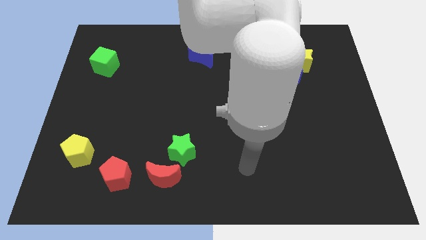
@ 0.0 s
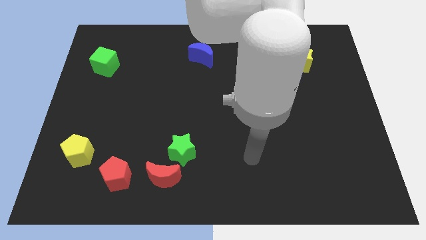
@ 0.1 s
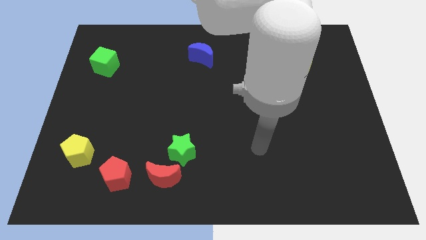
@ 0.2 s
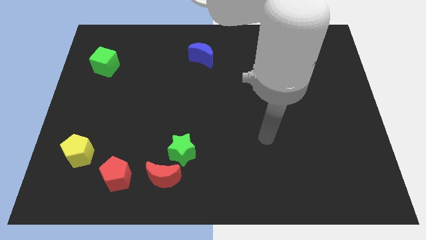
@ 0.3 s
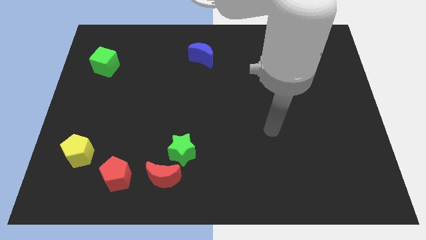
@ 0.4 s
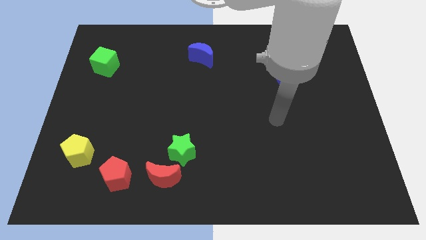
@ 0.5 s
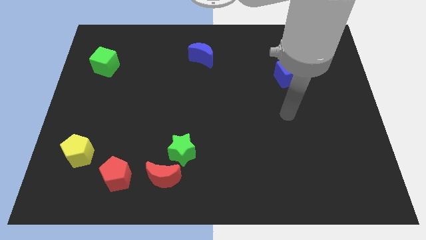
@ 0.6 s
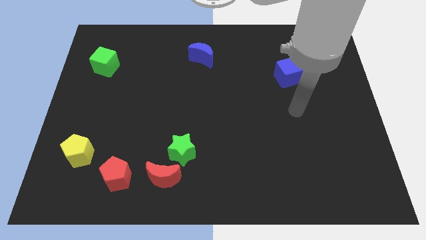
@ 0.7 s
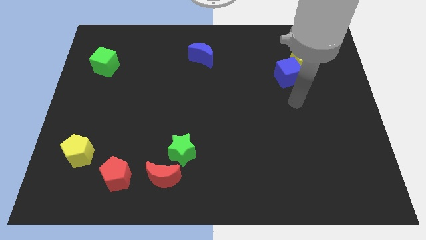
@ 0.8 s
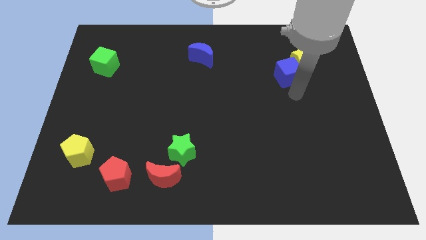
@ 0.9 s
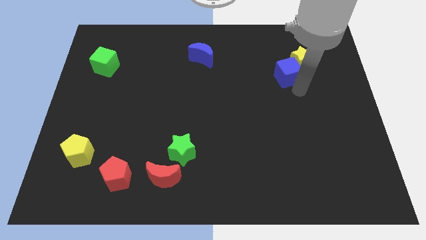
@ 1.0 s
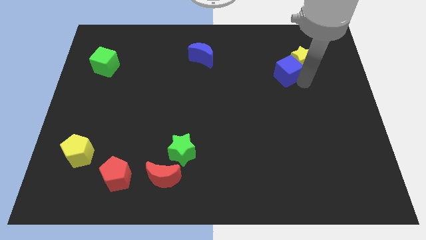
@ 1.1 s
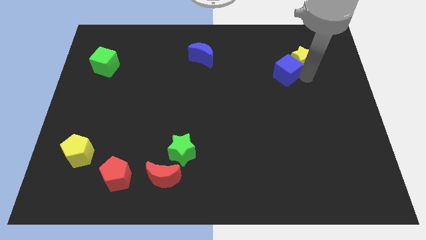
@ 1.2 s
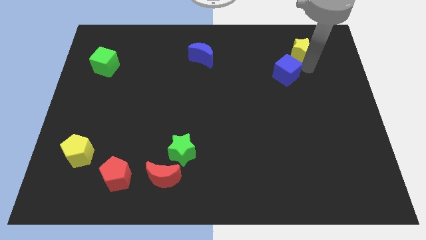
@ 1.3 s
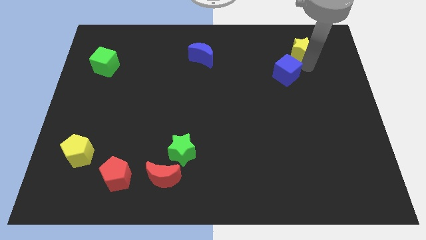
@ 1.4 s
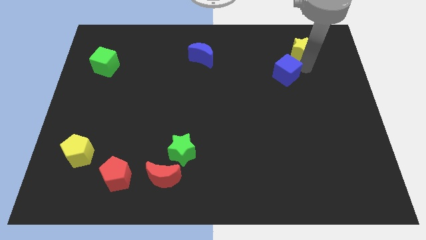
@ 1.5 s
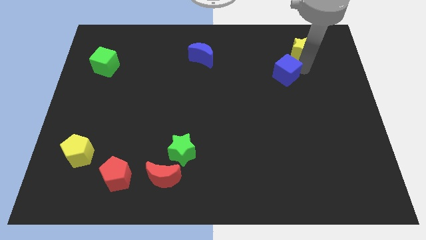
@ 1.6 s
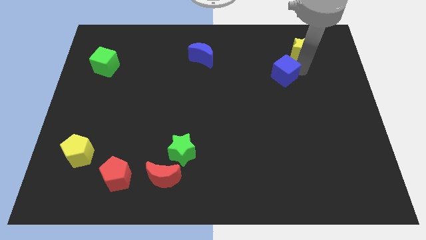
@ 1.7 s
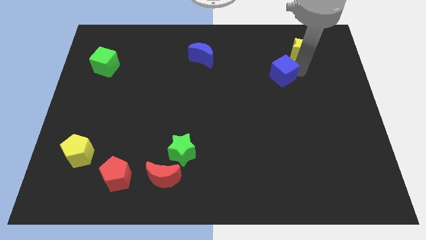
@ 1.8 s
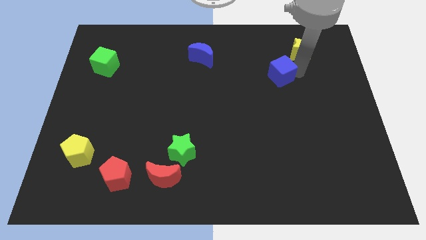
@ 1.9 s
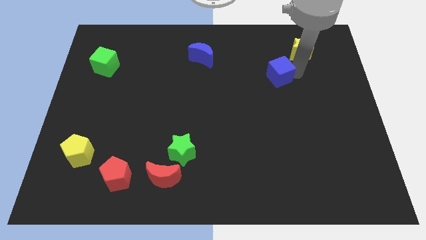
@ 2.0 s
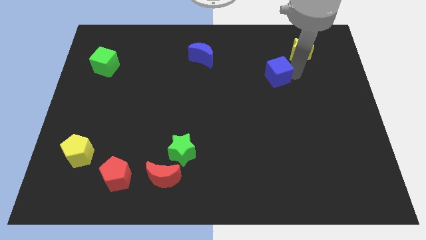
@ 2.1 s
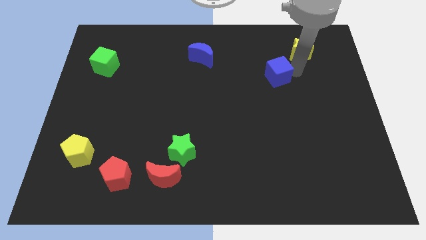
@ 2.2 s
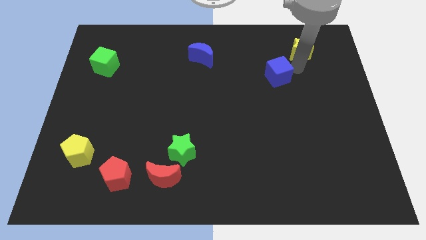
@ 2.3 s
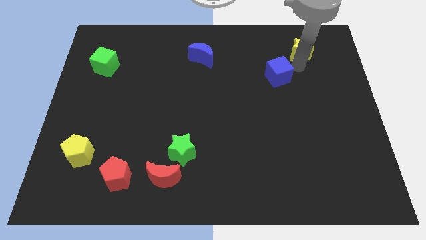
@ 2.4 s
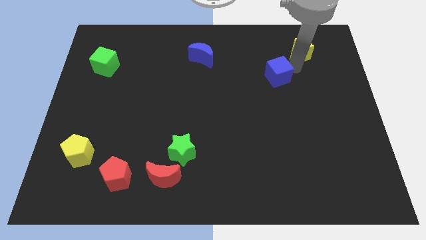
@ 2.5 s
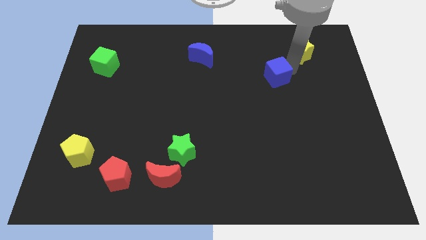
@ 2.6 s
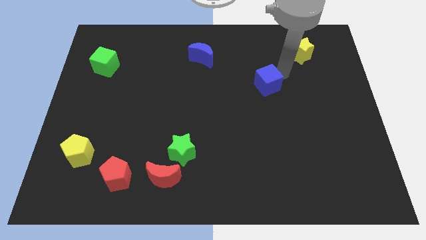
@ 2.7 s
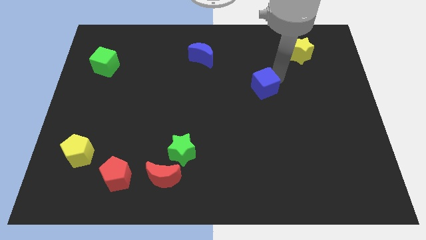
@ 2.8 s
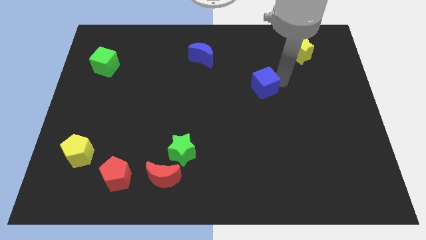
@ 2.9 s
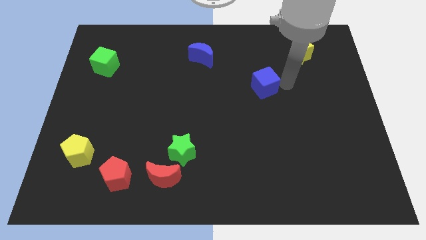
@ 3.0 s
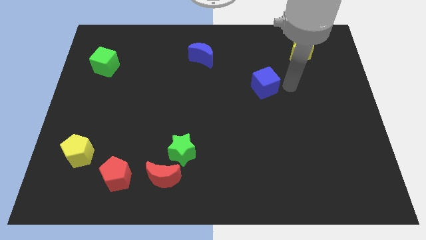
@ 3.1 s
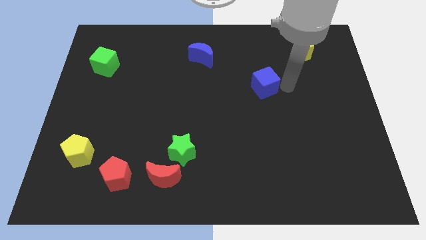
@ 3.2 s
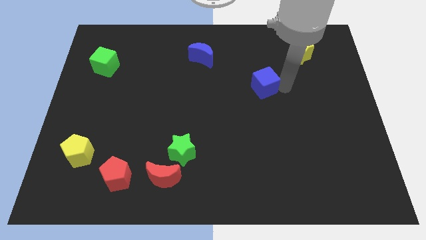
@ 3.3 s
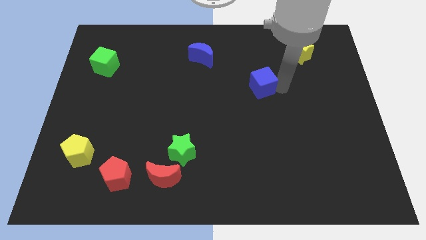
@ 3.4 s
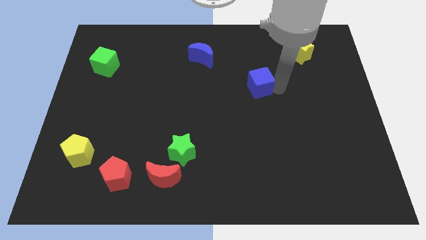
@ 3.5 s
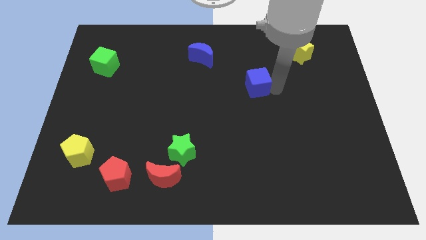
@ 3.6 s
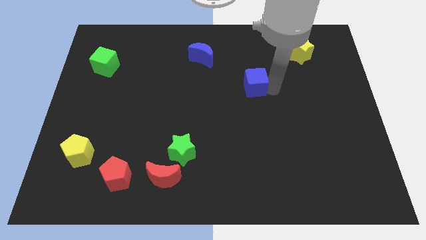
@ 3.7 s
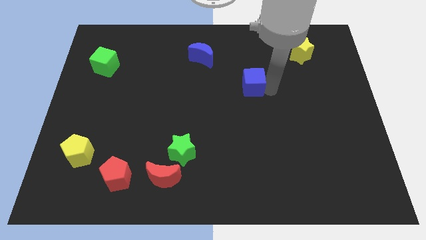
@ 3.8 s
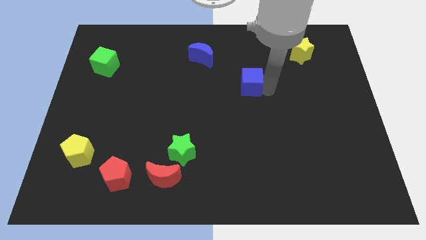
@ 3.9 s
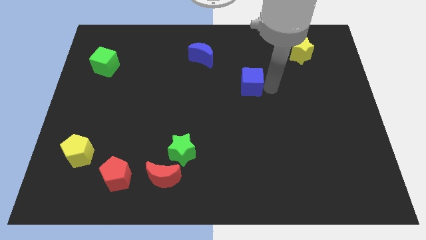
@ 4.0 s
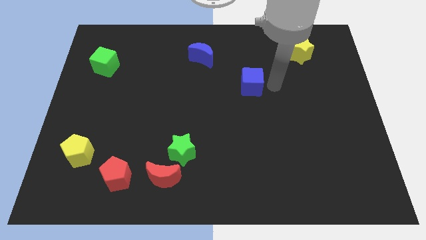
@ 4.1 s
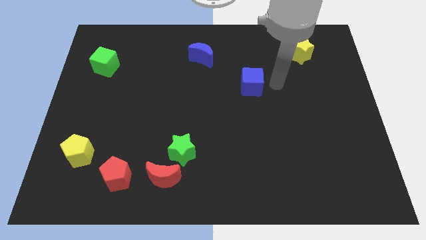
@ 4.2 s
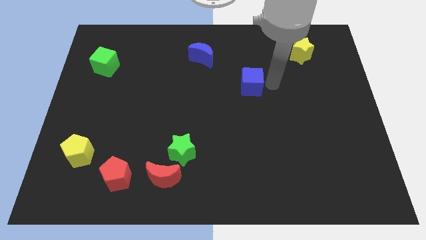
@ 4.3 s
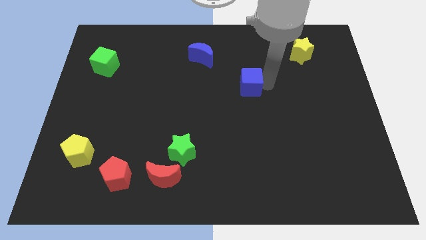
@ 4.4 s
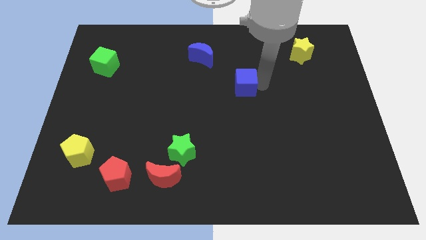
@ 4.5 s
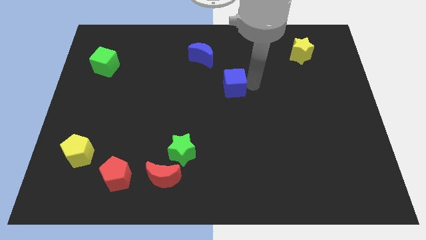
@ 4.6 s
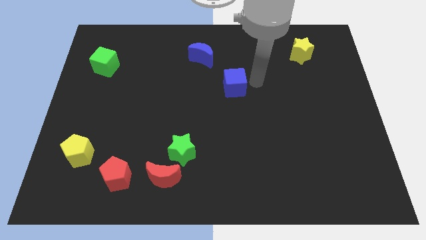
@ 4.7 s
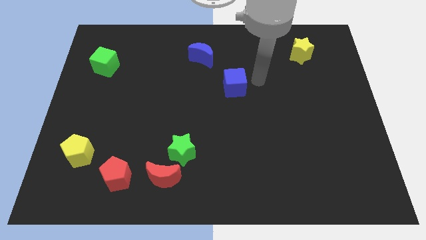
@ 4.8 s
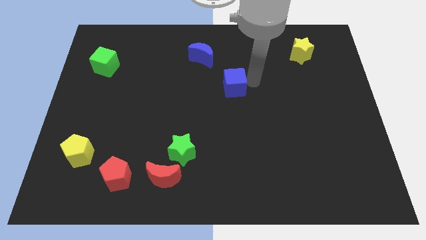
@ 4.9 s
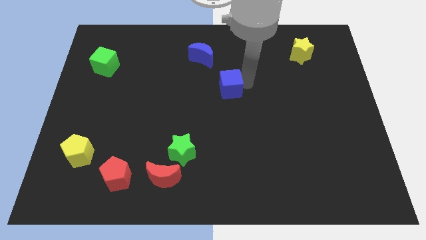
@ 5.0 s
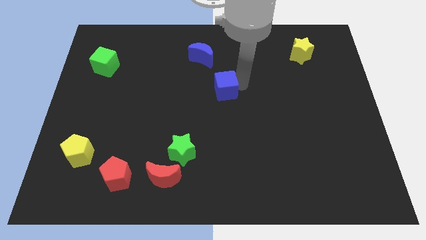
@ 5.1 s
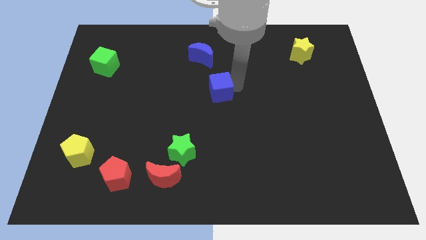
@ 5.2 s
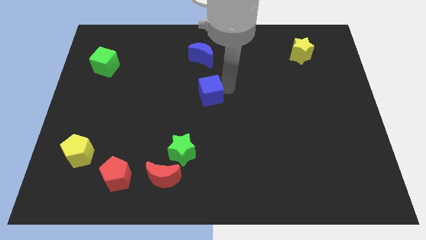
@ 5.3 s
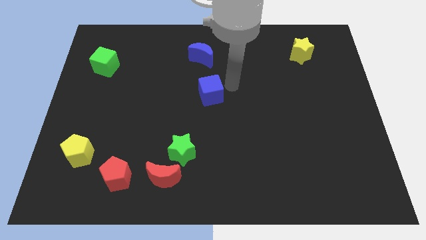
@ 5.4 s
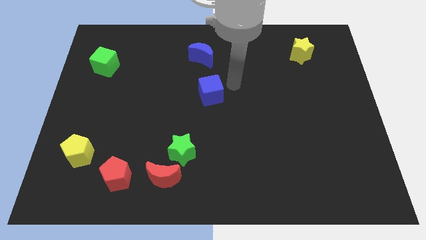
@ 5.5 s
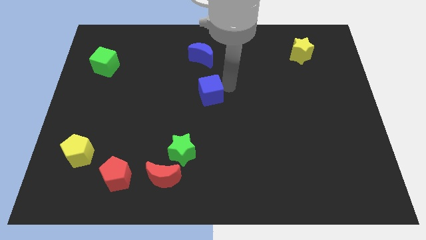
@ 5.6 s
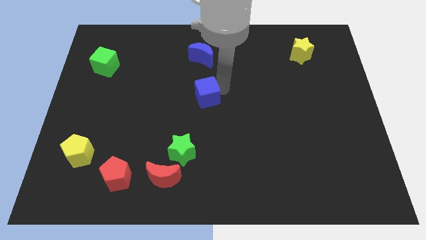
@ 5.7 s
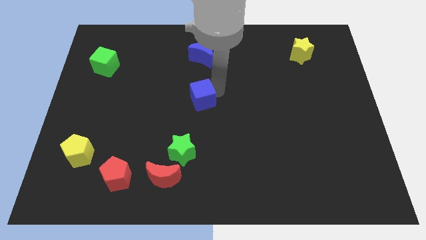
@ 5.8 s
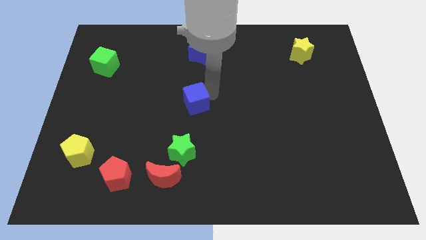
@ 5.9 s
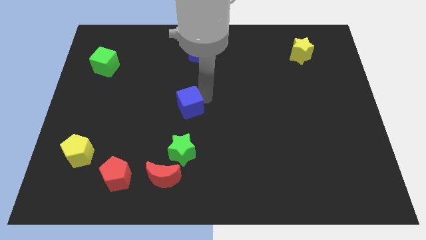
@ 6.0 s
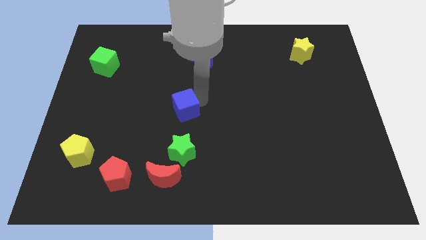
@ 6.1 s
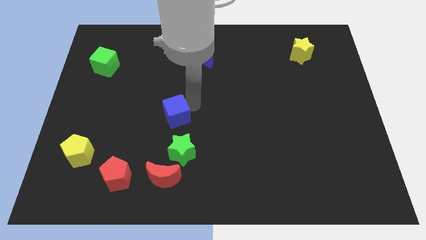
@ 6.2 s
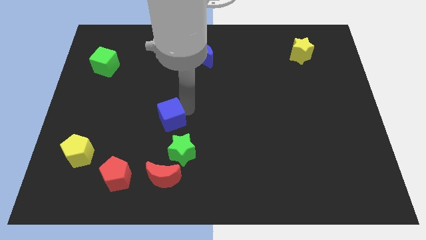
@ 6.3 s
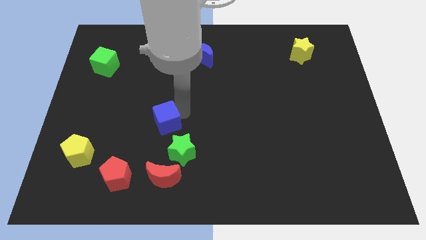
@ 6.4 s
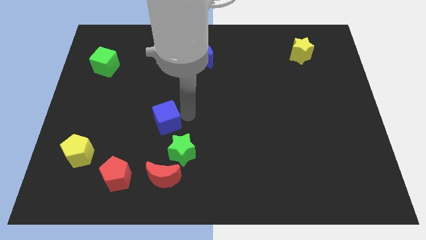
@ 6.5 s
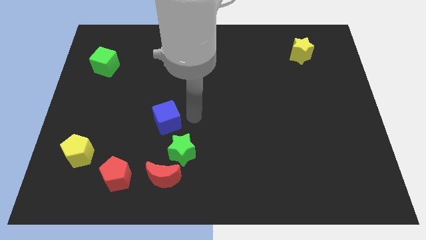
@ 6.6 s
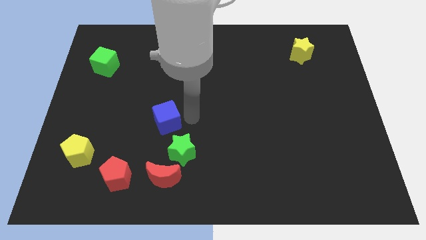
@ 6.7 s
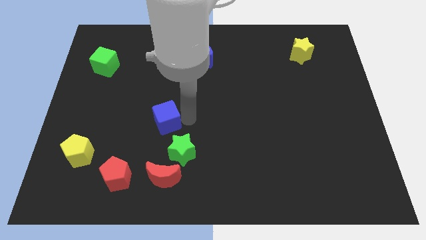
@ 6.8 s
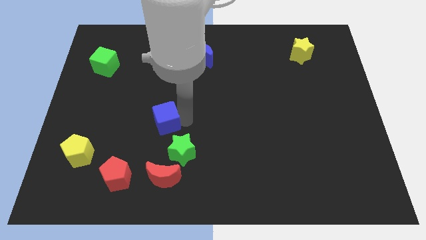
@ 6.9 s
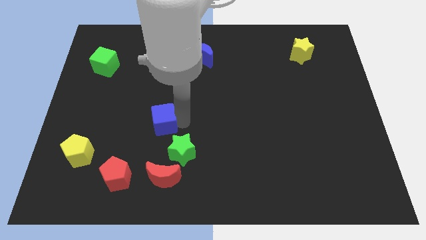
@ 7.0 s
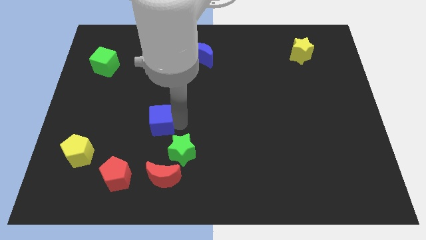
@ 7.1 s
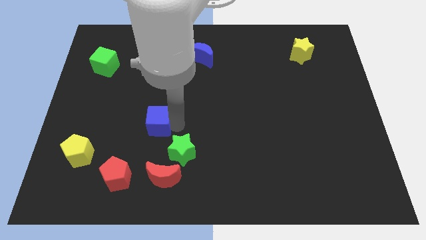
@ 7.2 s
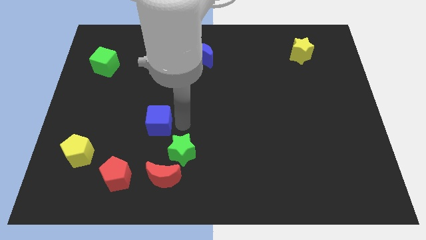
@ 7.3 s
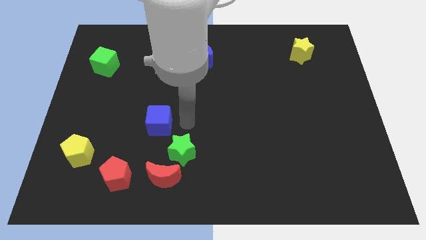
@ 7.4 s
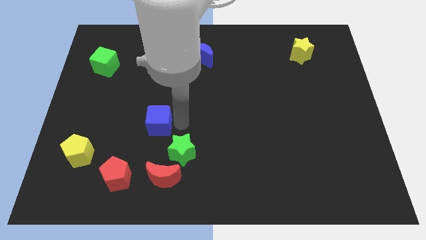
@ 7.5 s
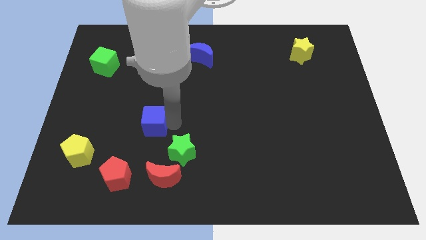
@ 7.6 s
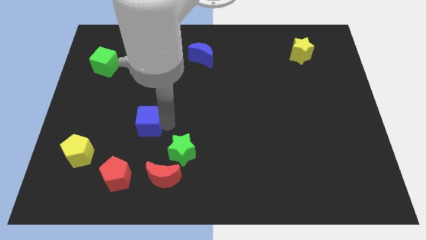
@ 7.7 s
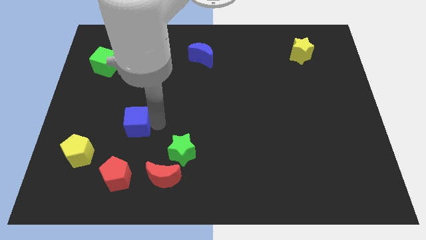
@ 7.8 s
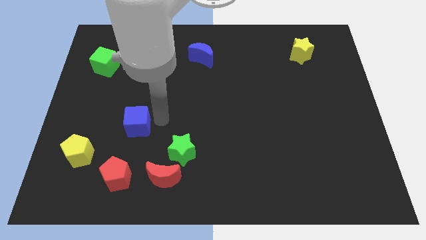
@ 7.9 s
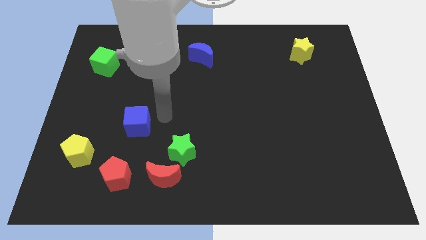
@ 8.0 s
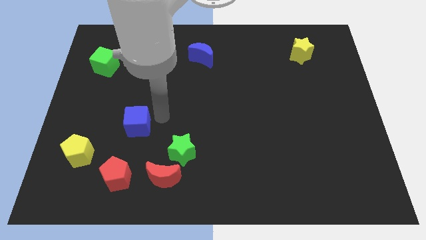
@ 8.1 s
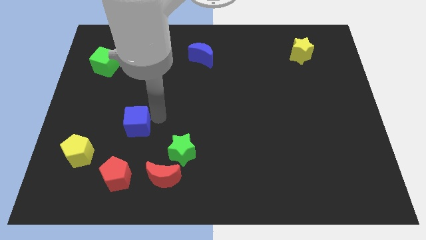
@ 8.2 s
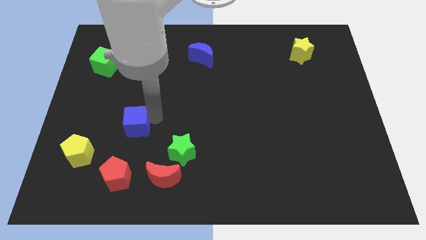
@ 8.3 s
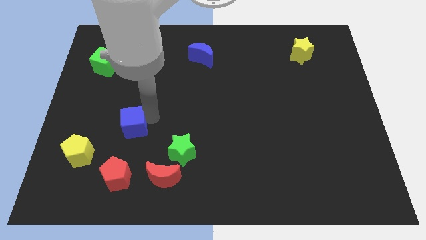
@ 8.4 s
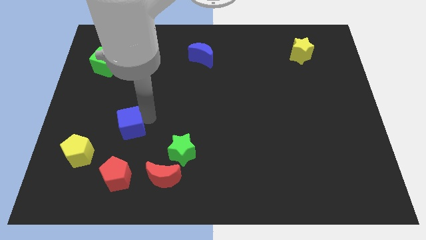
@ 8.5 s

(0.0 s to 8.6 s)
move the blue cube diagonally up and to the right of the yellow pentagon
